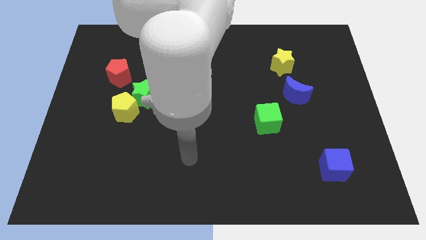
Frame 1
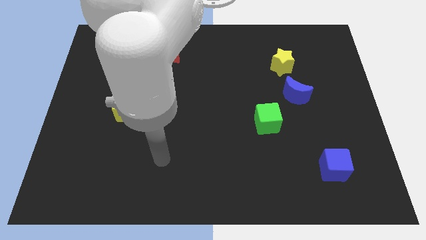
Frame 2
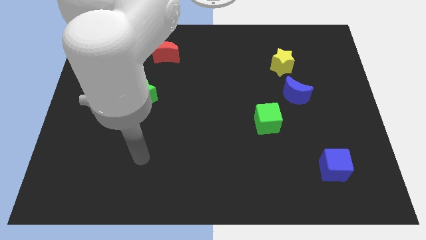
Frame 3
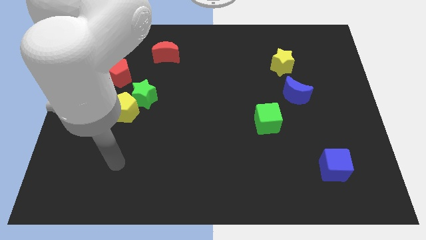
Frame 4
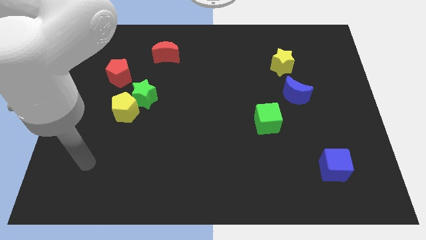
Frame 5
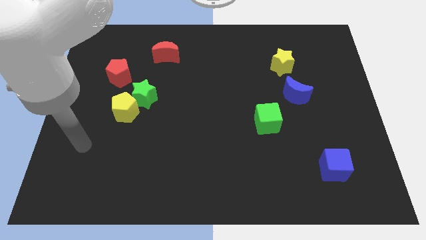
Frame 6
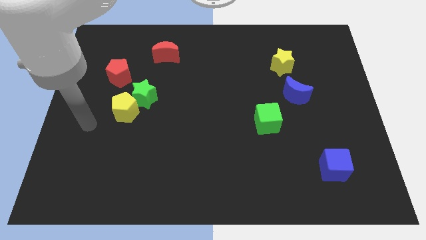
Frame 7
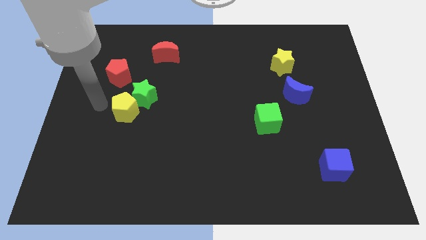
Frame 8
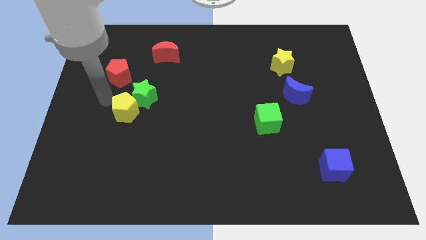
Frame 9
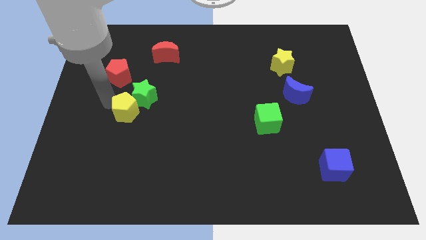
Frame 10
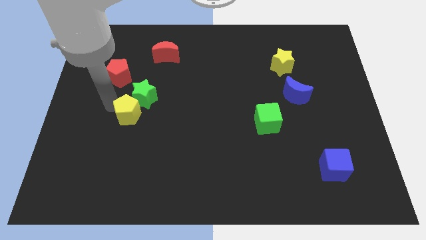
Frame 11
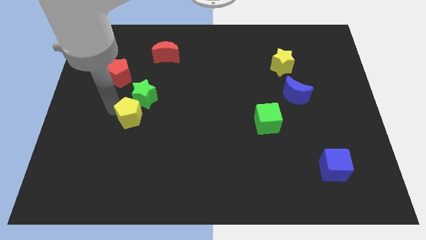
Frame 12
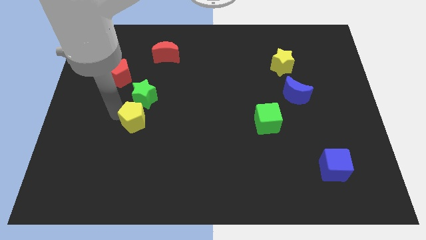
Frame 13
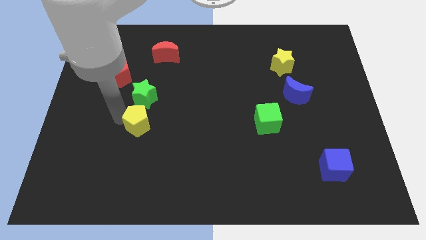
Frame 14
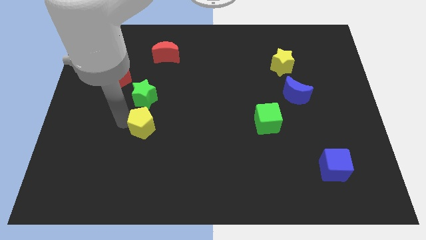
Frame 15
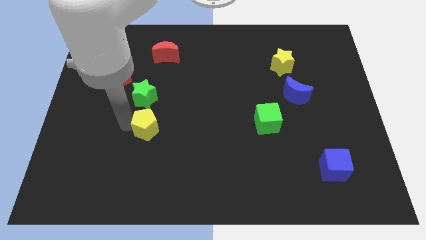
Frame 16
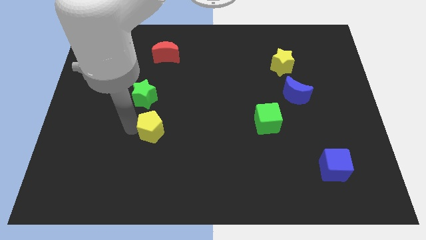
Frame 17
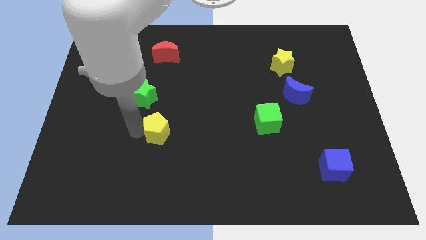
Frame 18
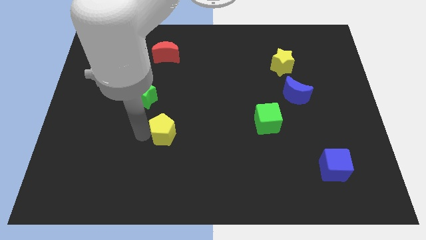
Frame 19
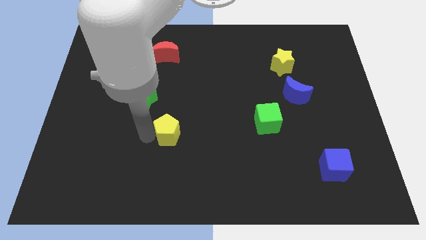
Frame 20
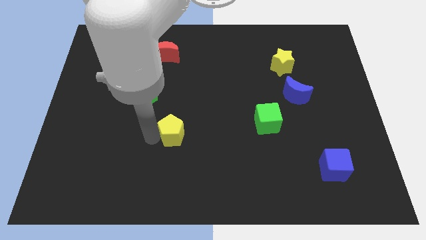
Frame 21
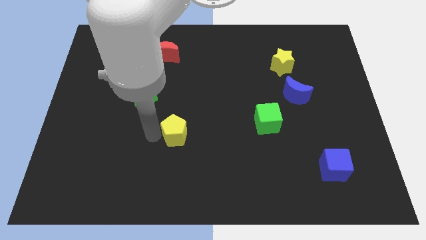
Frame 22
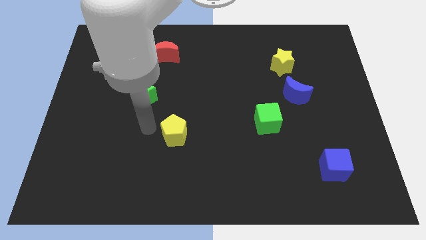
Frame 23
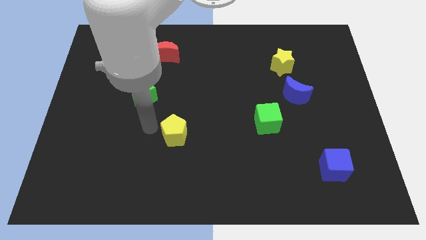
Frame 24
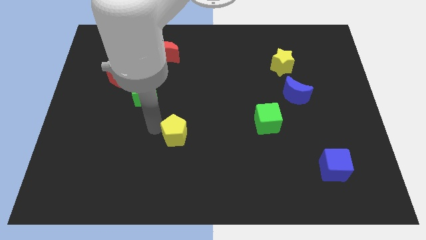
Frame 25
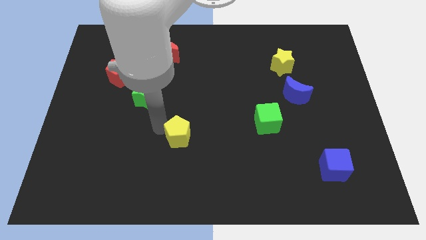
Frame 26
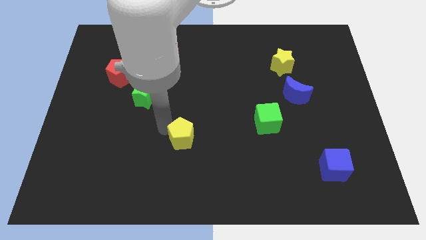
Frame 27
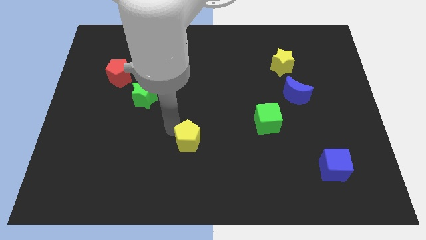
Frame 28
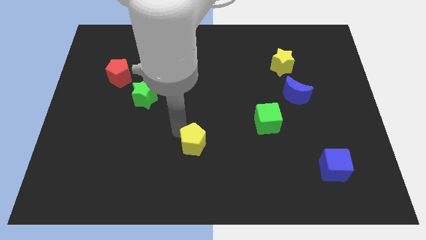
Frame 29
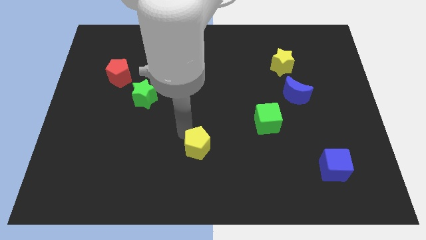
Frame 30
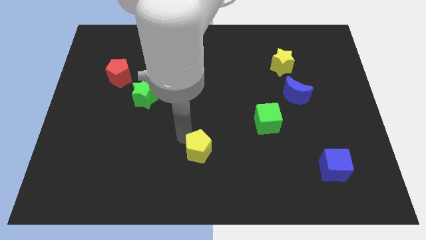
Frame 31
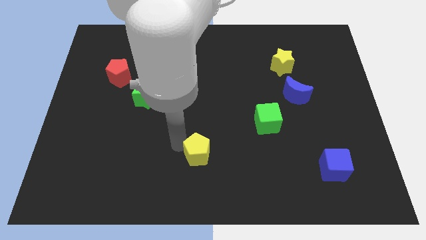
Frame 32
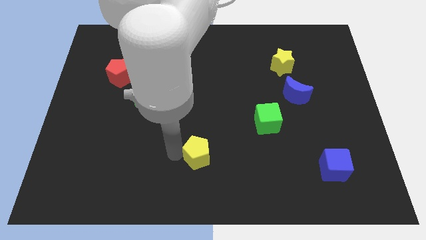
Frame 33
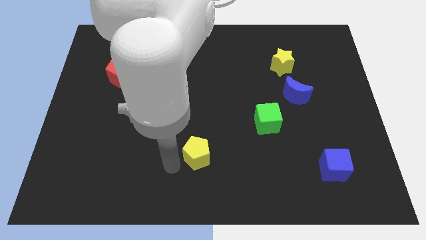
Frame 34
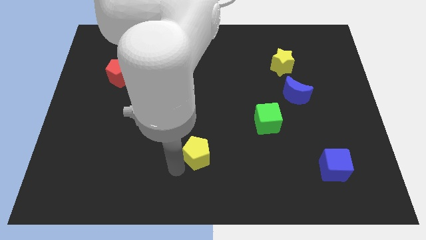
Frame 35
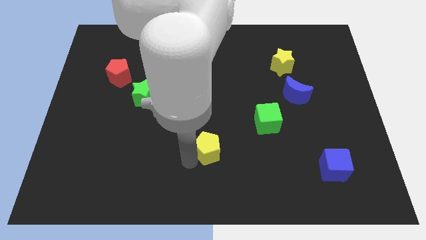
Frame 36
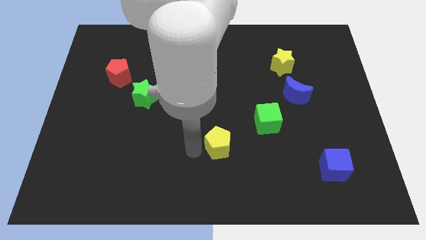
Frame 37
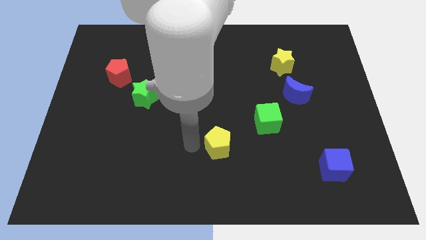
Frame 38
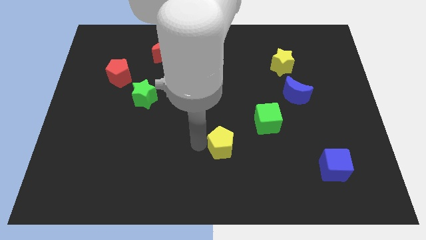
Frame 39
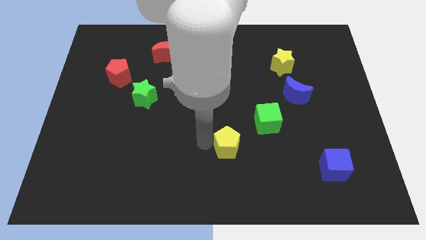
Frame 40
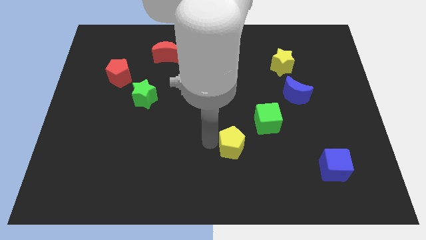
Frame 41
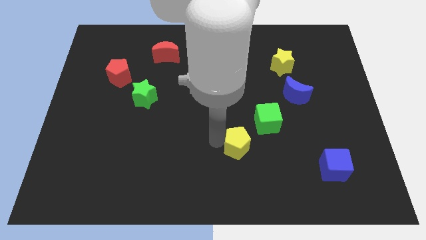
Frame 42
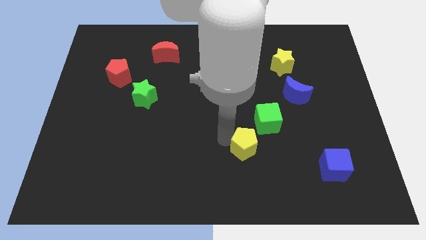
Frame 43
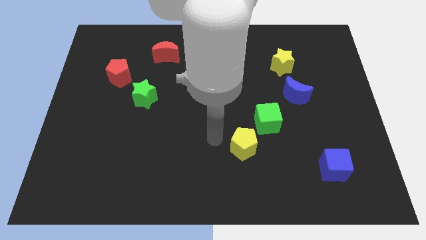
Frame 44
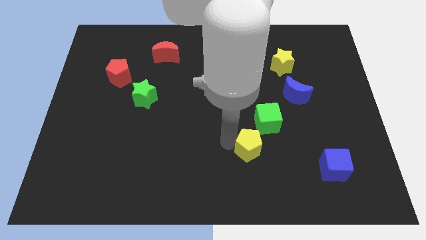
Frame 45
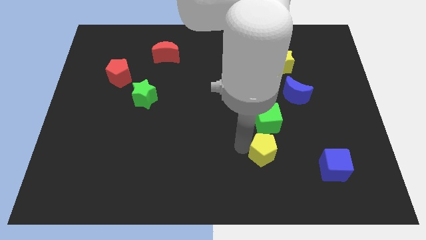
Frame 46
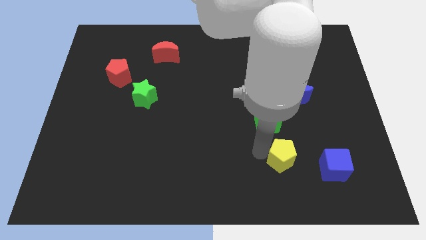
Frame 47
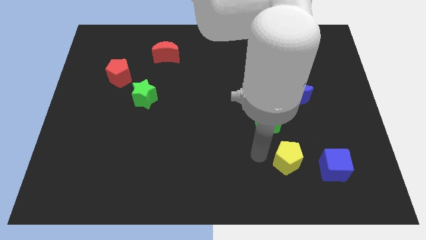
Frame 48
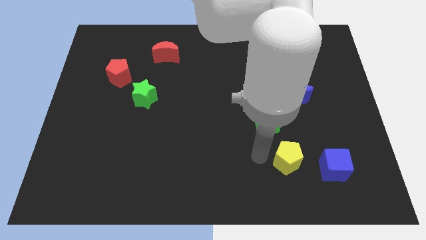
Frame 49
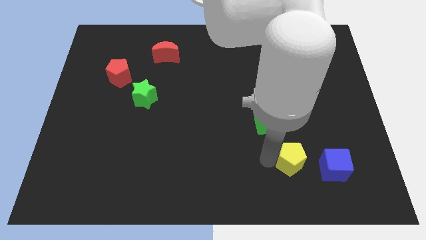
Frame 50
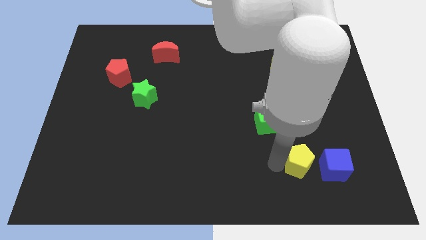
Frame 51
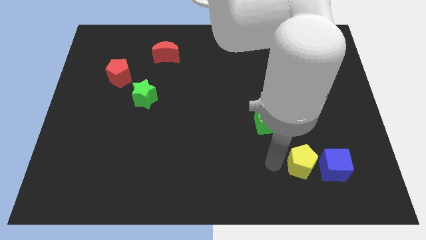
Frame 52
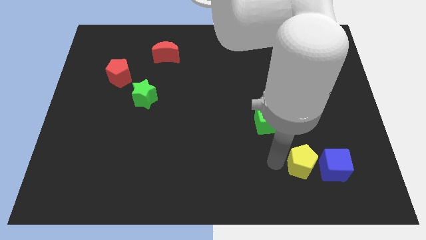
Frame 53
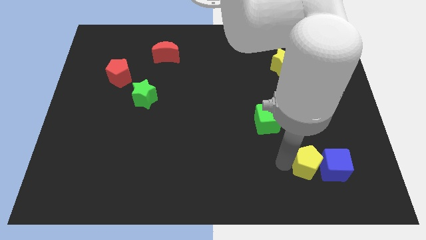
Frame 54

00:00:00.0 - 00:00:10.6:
move the yellow pentagon to the blue cube

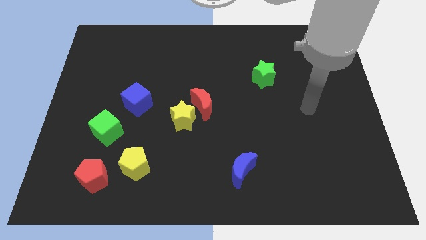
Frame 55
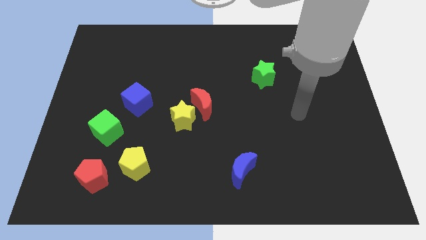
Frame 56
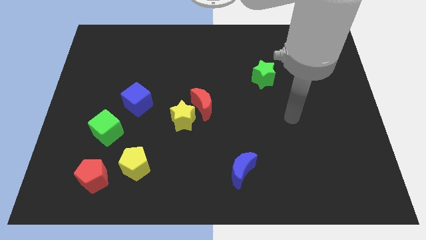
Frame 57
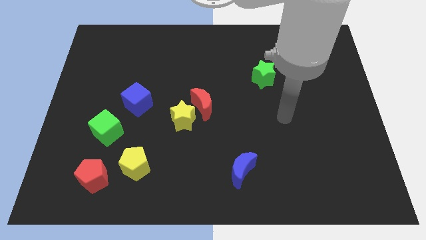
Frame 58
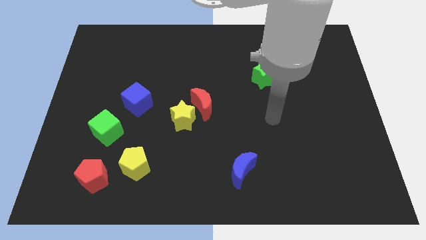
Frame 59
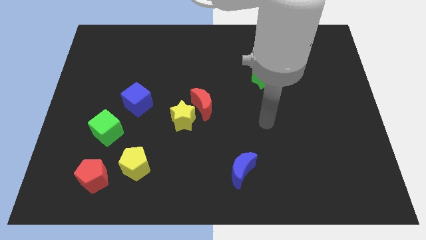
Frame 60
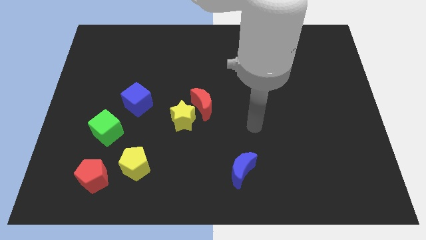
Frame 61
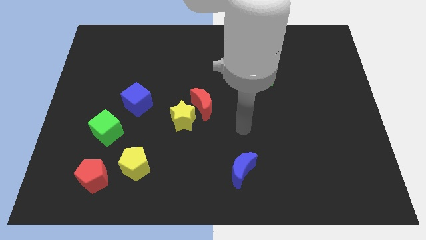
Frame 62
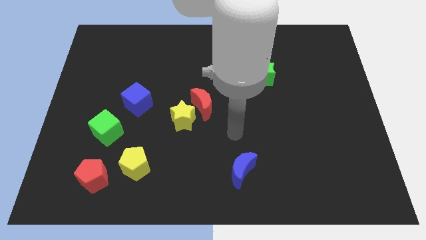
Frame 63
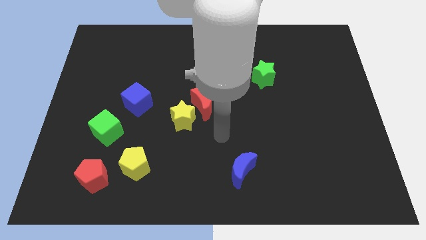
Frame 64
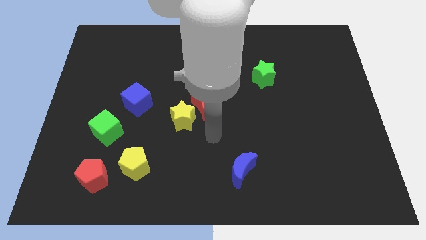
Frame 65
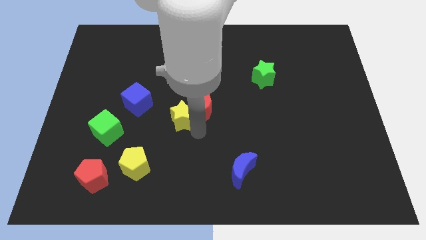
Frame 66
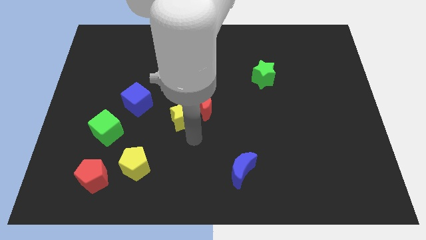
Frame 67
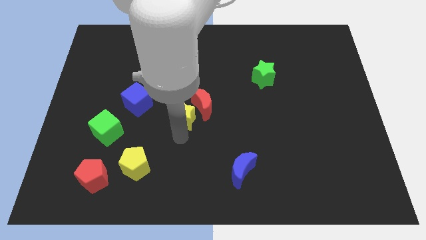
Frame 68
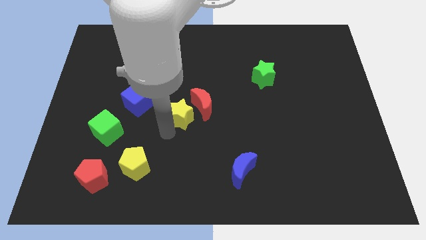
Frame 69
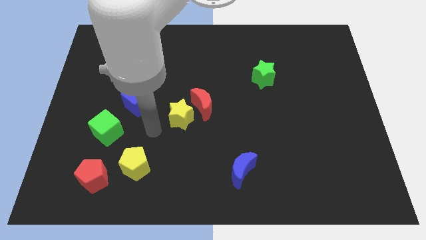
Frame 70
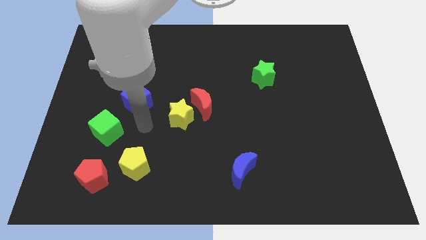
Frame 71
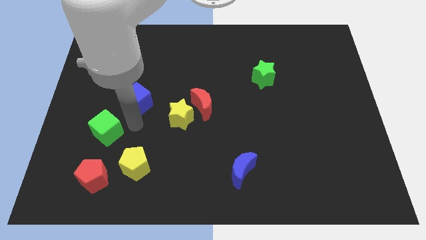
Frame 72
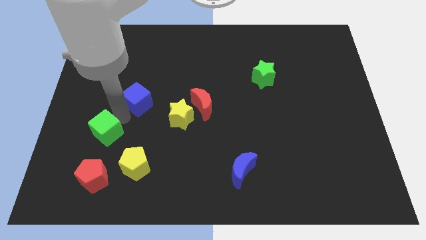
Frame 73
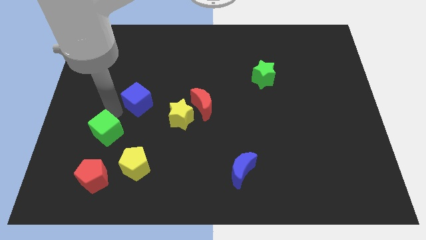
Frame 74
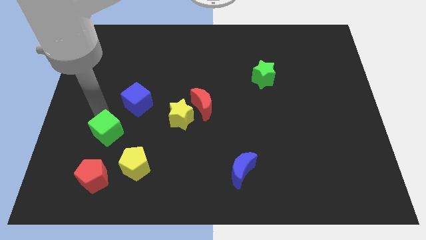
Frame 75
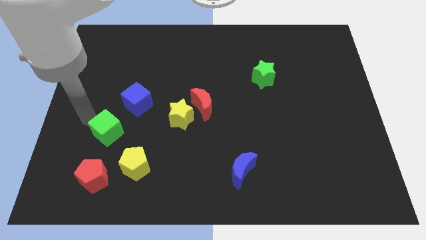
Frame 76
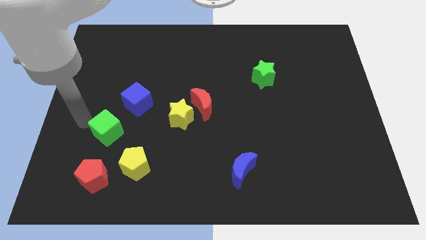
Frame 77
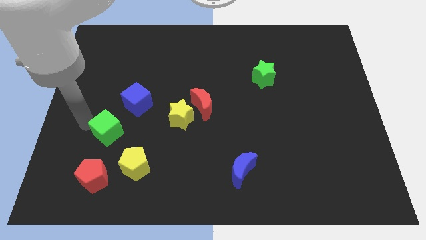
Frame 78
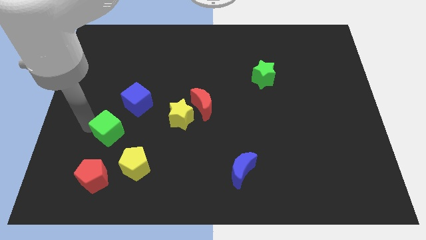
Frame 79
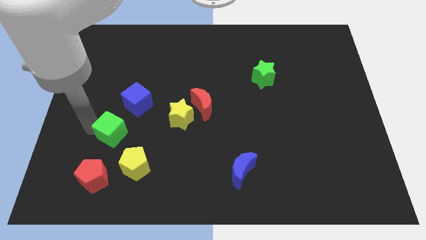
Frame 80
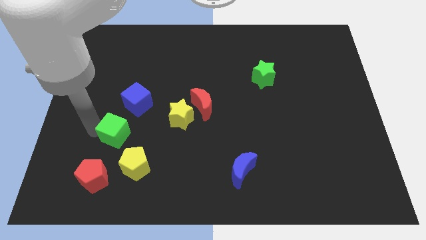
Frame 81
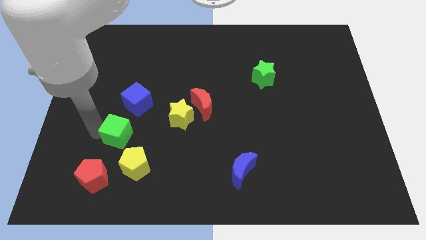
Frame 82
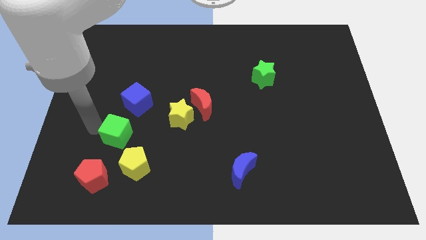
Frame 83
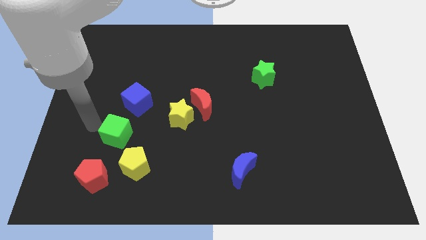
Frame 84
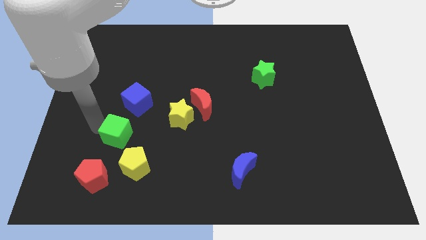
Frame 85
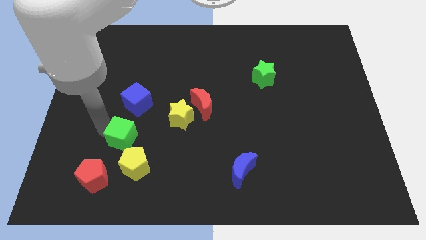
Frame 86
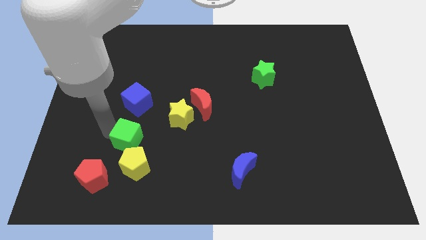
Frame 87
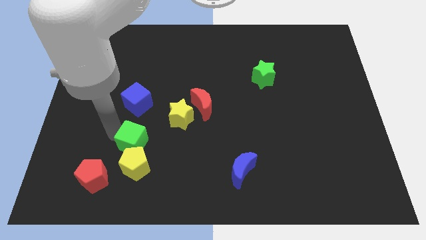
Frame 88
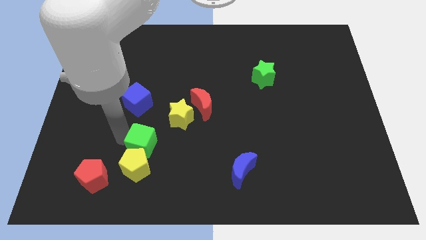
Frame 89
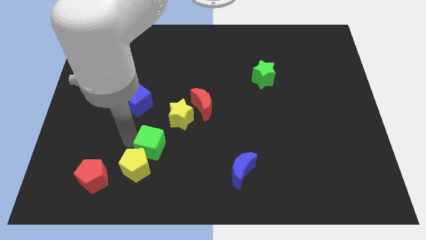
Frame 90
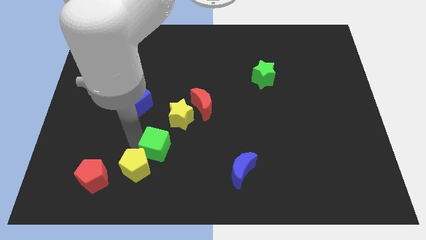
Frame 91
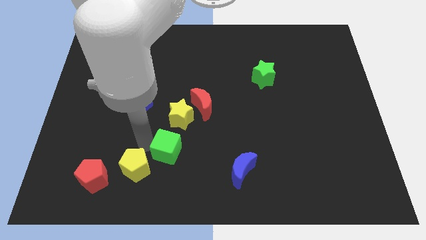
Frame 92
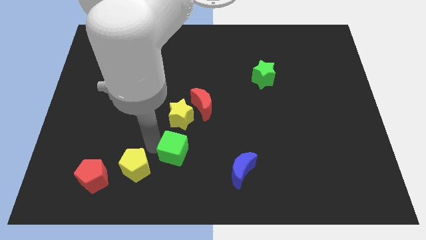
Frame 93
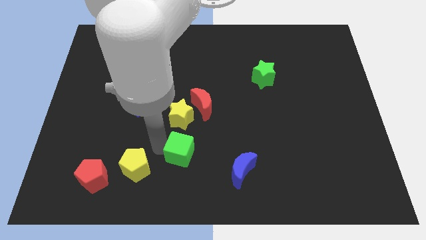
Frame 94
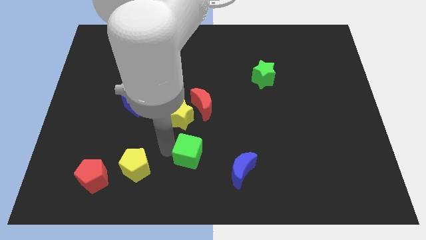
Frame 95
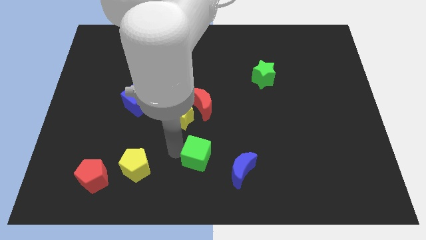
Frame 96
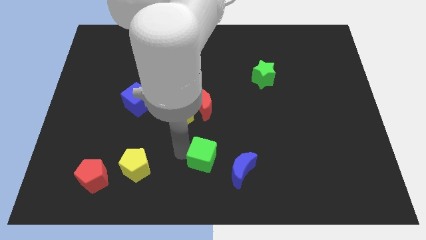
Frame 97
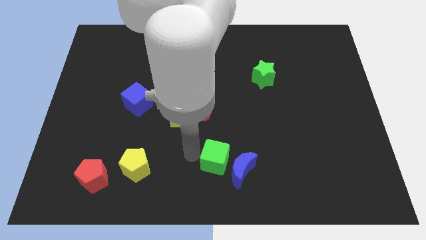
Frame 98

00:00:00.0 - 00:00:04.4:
move the green cube close to the blue moon
